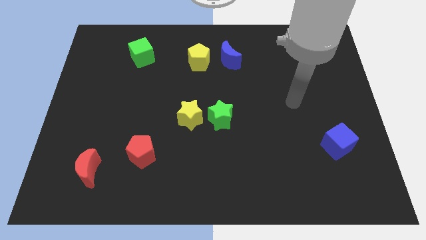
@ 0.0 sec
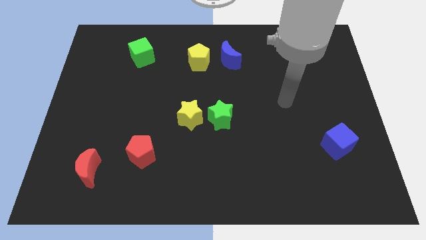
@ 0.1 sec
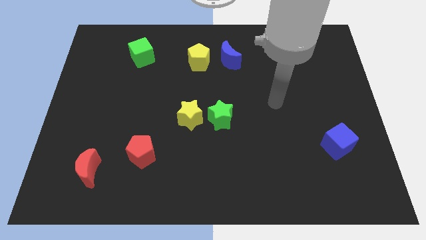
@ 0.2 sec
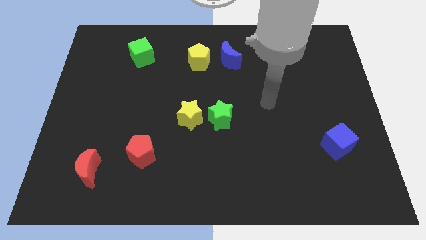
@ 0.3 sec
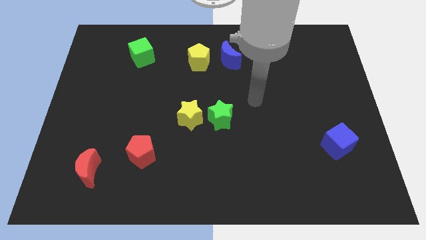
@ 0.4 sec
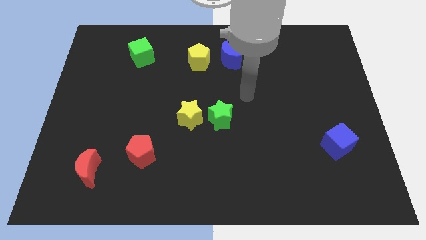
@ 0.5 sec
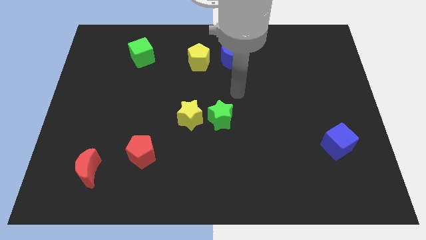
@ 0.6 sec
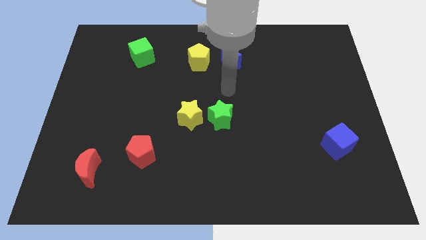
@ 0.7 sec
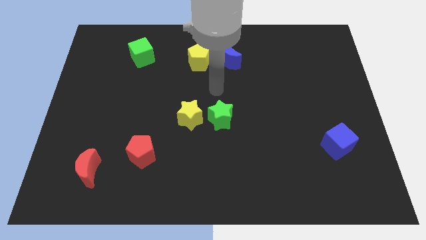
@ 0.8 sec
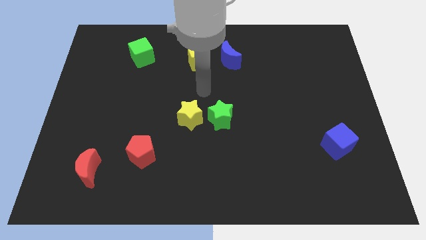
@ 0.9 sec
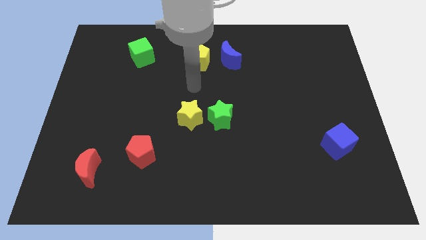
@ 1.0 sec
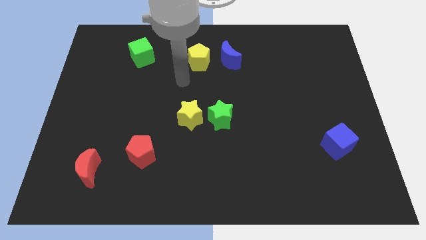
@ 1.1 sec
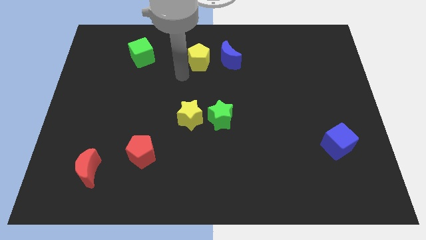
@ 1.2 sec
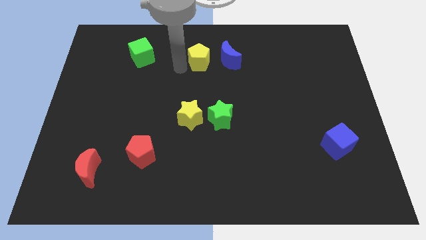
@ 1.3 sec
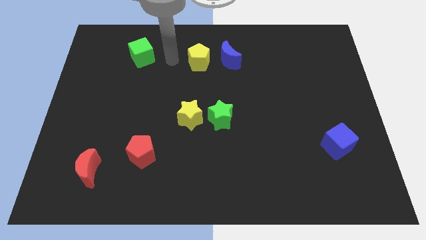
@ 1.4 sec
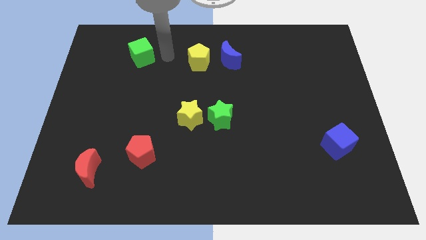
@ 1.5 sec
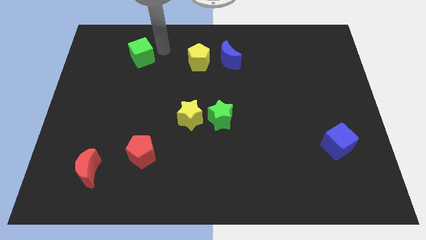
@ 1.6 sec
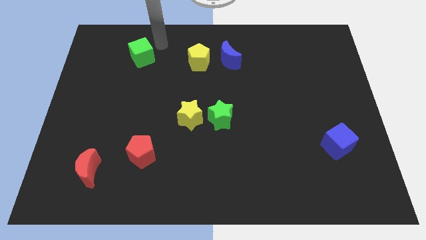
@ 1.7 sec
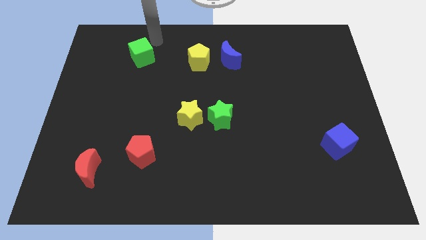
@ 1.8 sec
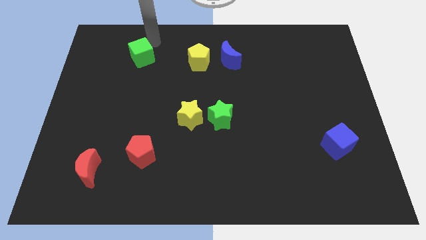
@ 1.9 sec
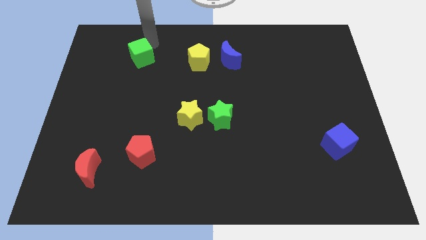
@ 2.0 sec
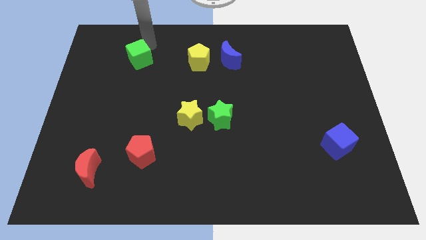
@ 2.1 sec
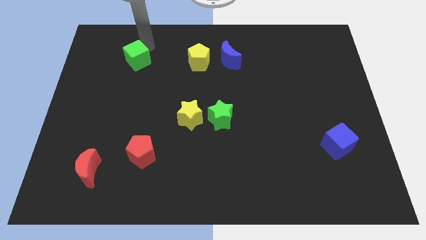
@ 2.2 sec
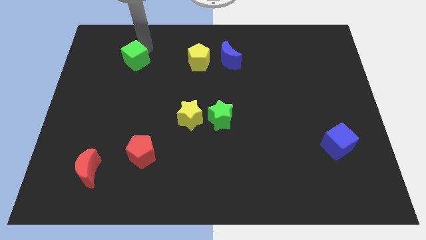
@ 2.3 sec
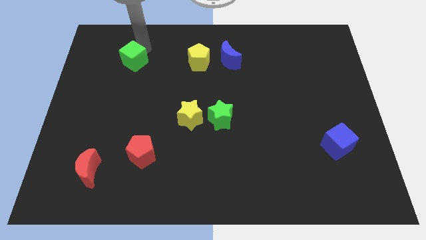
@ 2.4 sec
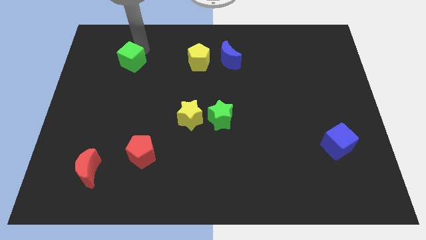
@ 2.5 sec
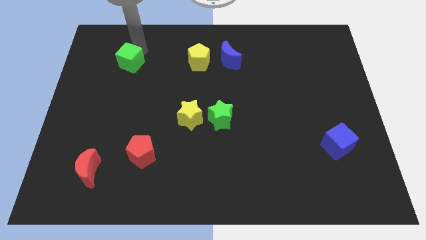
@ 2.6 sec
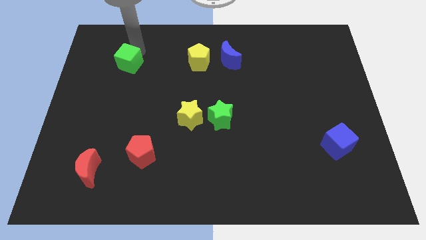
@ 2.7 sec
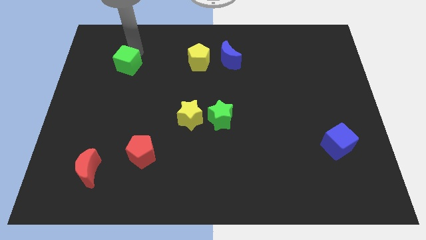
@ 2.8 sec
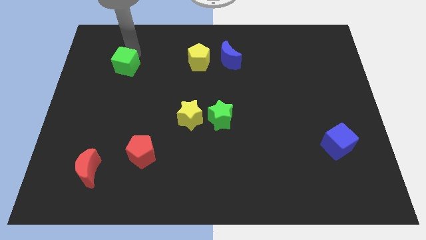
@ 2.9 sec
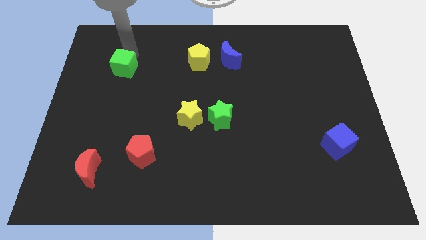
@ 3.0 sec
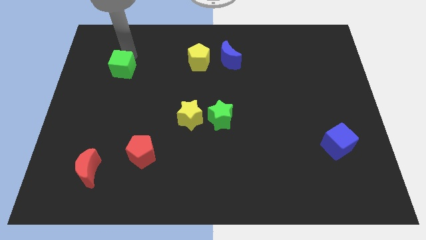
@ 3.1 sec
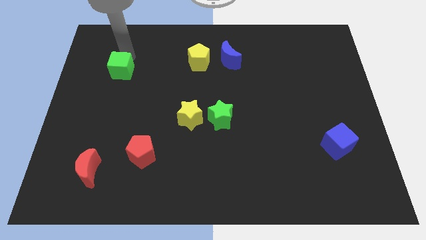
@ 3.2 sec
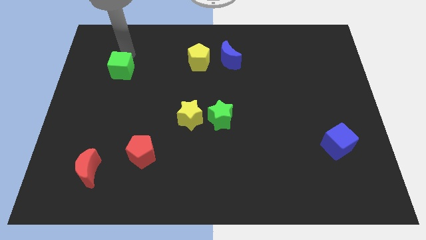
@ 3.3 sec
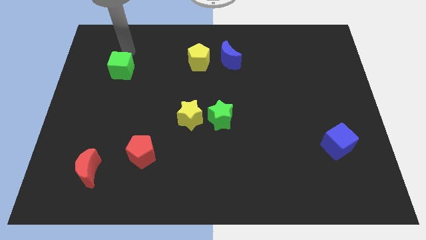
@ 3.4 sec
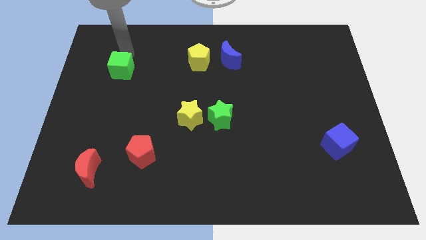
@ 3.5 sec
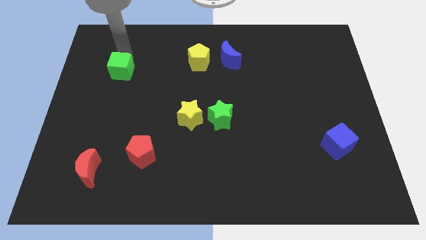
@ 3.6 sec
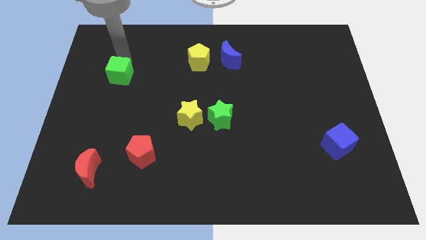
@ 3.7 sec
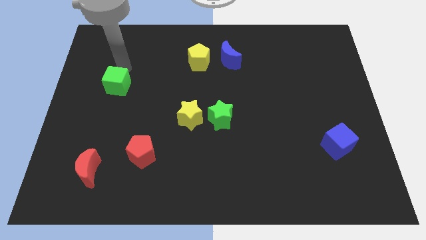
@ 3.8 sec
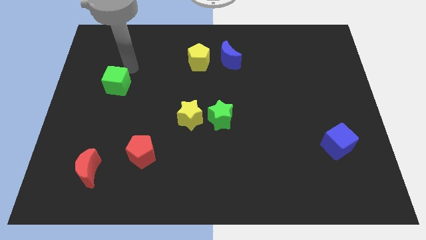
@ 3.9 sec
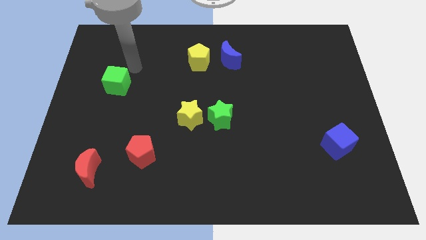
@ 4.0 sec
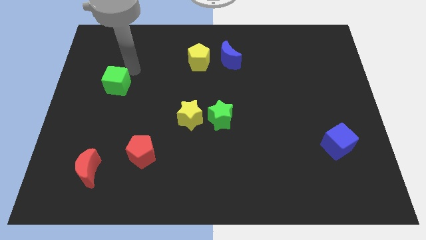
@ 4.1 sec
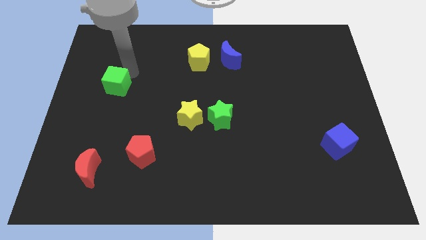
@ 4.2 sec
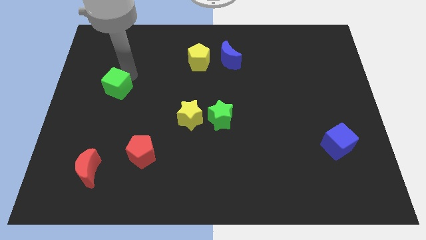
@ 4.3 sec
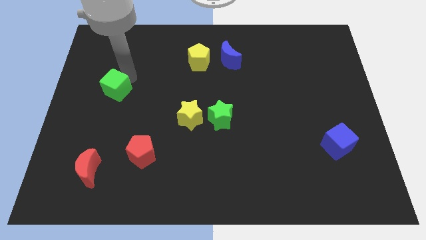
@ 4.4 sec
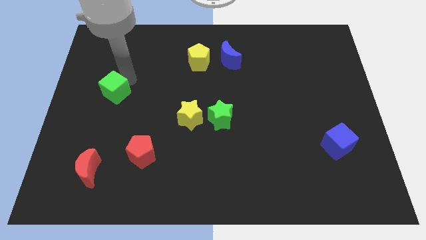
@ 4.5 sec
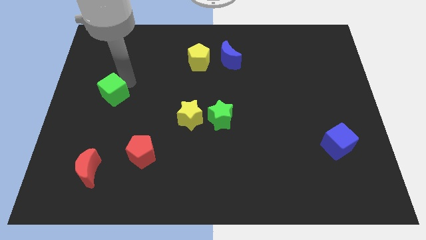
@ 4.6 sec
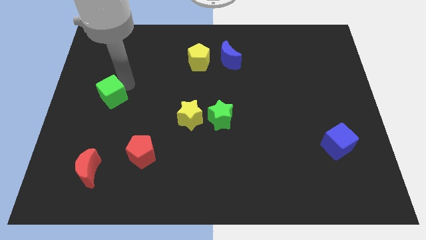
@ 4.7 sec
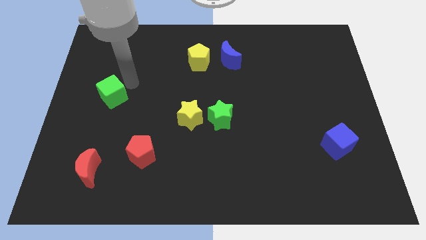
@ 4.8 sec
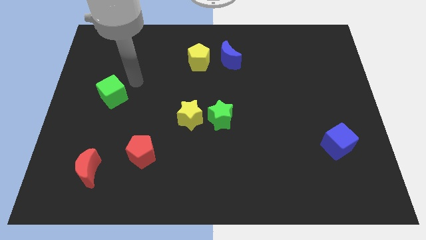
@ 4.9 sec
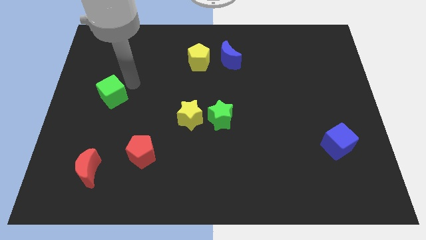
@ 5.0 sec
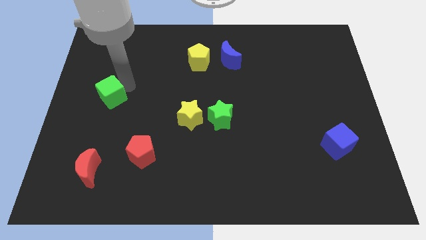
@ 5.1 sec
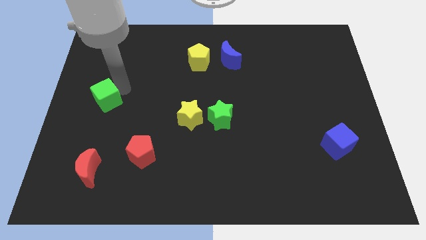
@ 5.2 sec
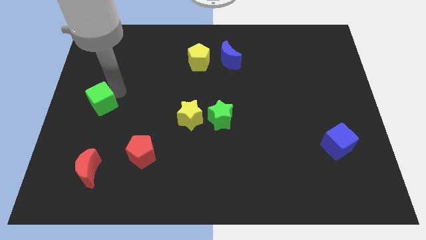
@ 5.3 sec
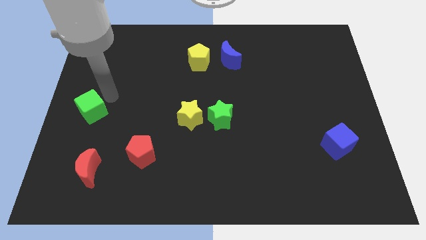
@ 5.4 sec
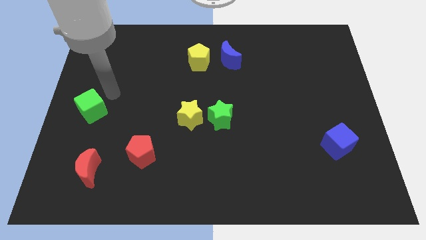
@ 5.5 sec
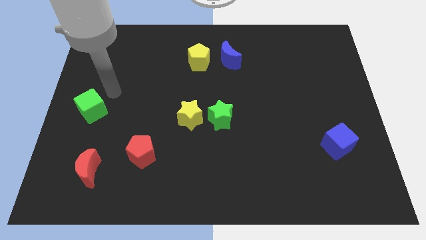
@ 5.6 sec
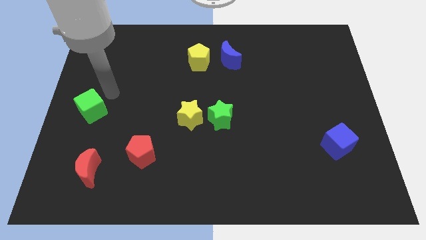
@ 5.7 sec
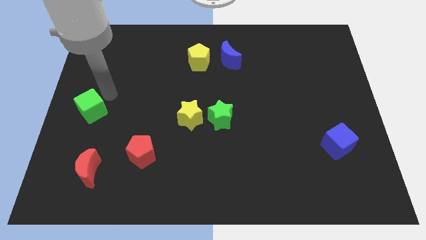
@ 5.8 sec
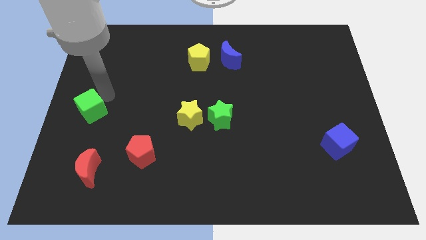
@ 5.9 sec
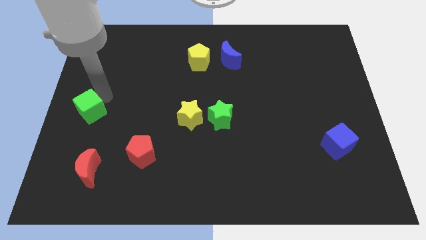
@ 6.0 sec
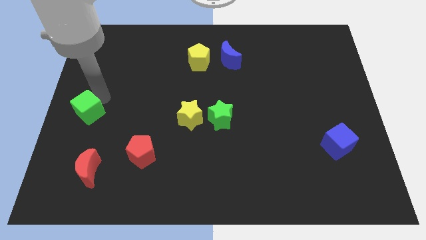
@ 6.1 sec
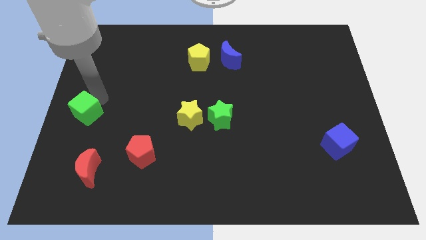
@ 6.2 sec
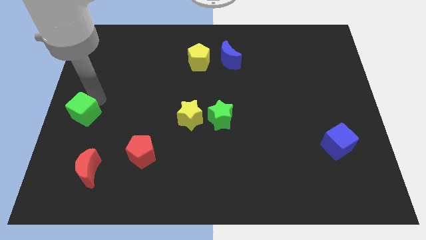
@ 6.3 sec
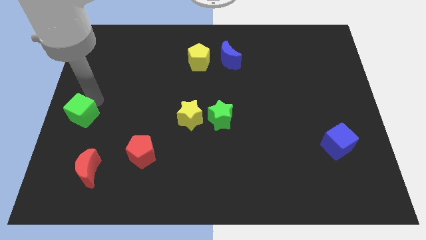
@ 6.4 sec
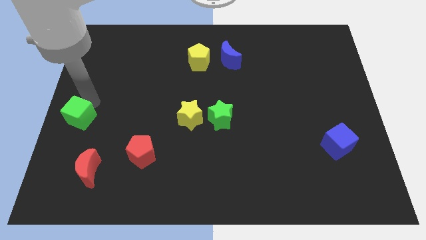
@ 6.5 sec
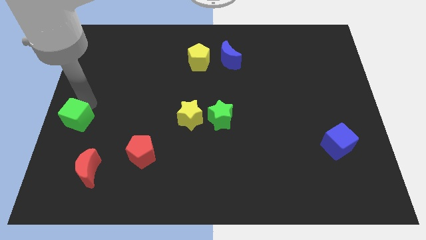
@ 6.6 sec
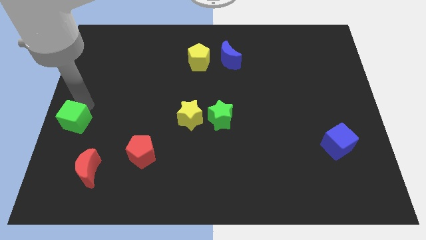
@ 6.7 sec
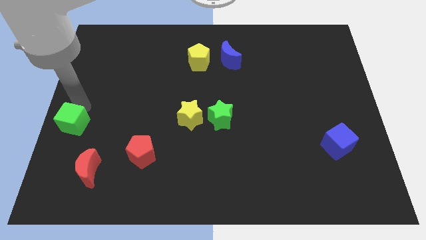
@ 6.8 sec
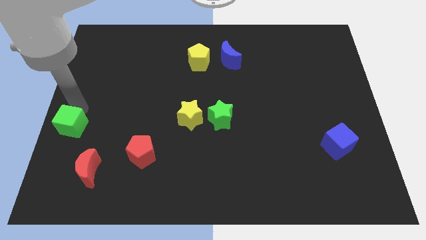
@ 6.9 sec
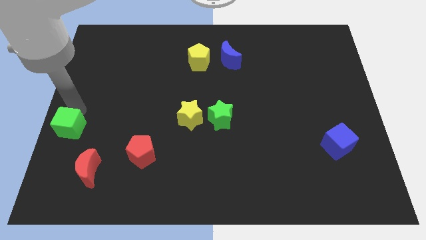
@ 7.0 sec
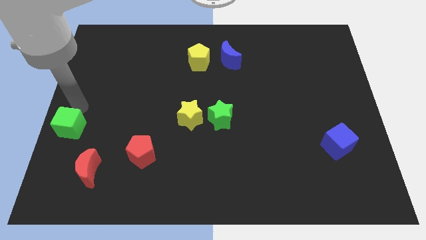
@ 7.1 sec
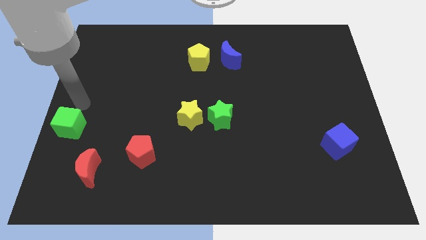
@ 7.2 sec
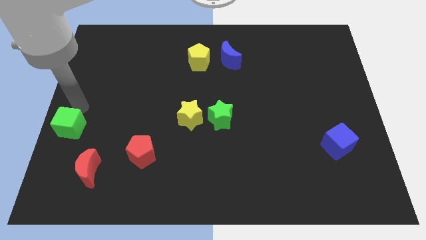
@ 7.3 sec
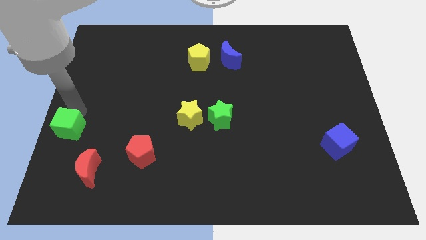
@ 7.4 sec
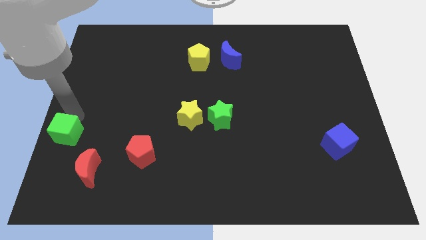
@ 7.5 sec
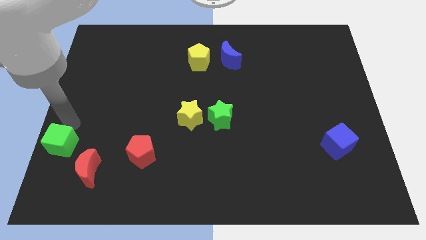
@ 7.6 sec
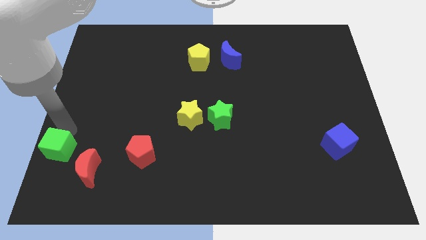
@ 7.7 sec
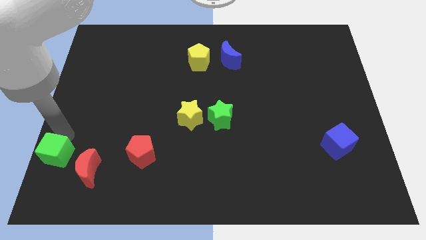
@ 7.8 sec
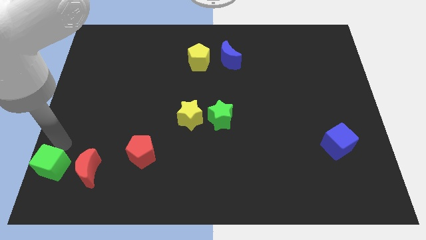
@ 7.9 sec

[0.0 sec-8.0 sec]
slide the green cube to the bottom left corner
